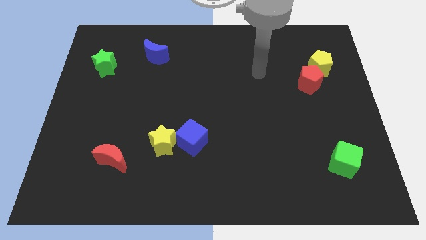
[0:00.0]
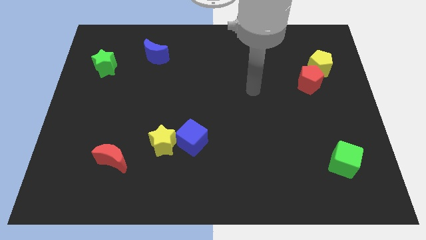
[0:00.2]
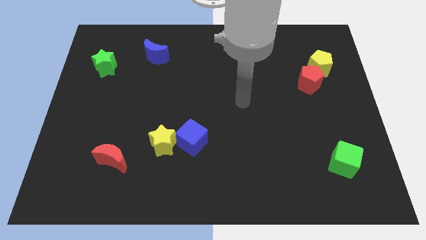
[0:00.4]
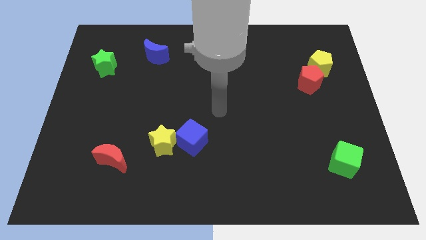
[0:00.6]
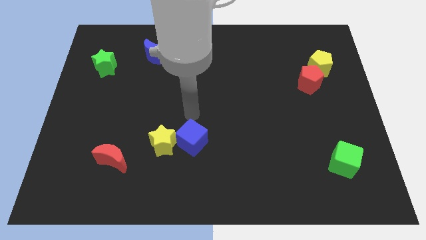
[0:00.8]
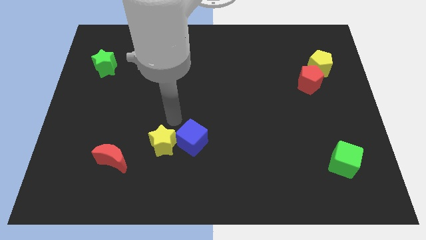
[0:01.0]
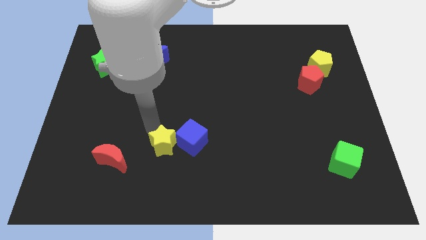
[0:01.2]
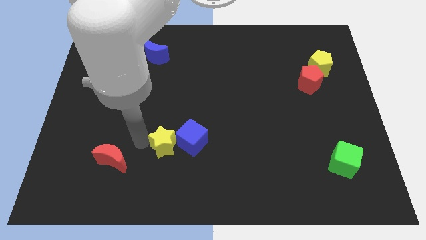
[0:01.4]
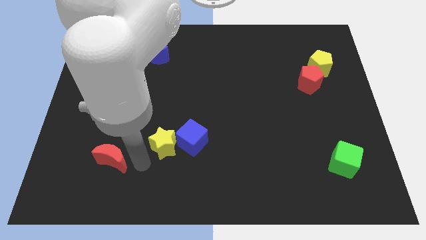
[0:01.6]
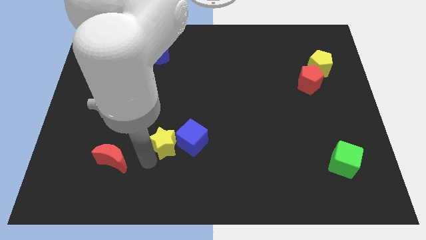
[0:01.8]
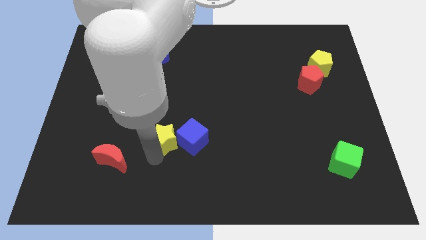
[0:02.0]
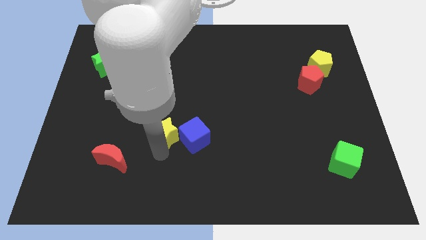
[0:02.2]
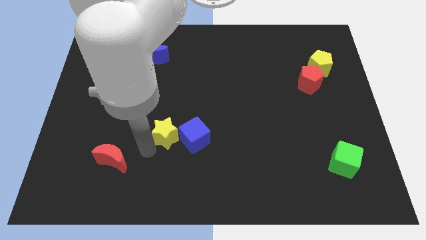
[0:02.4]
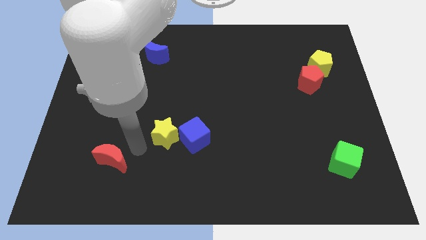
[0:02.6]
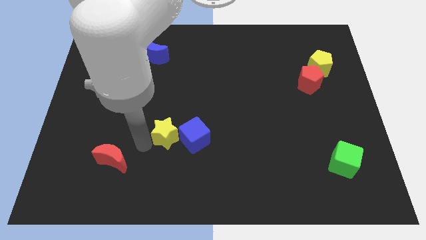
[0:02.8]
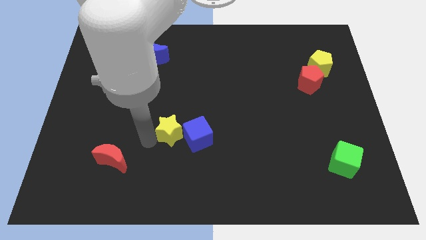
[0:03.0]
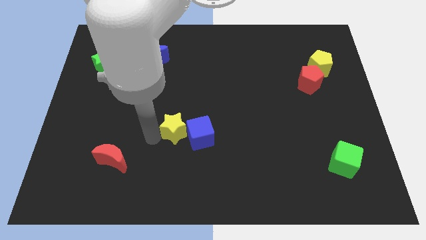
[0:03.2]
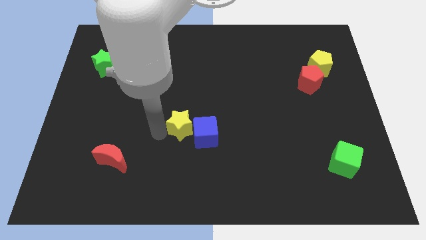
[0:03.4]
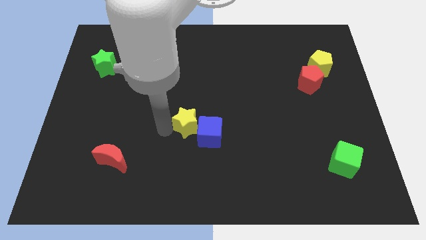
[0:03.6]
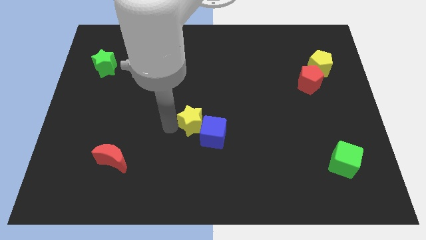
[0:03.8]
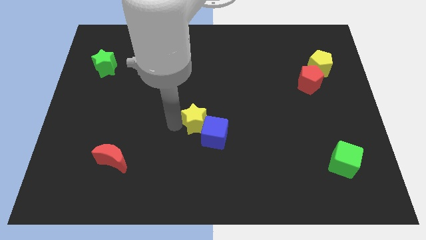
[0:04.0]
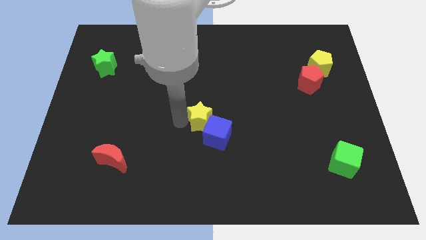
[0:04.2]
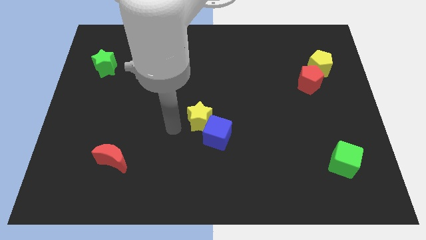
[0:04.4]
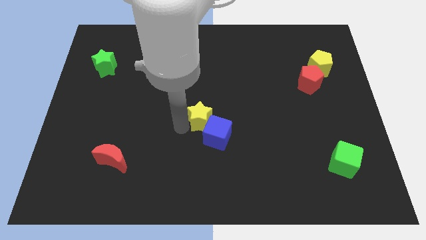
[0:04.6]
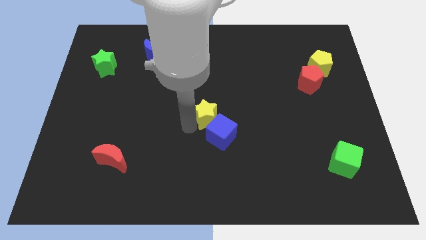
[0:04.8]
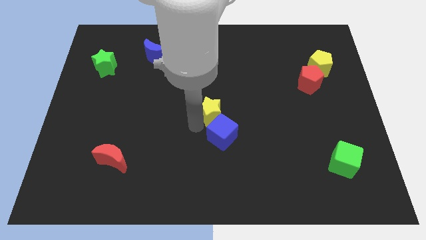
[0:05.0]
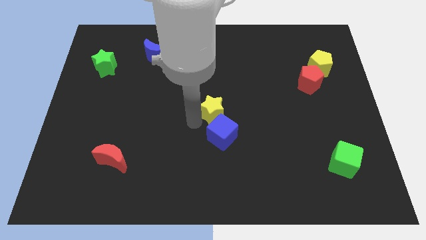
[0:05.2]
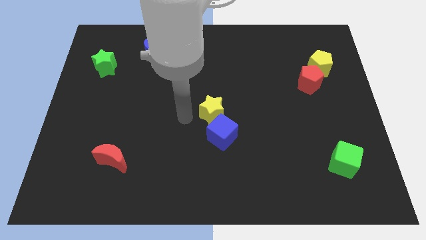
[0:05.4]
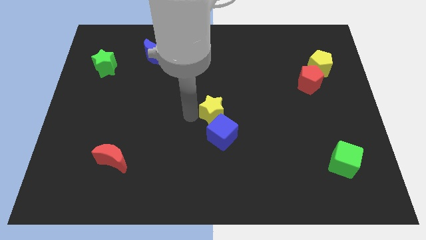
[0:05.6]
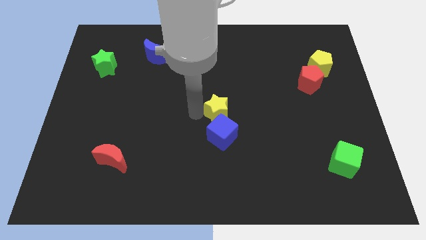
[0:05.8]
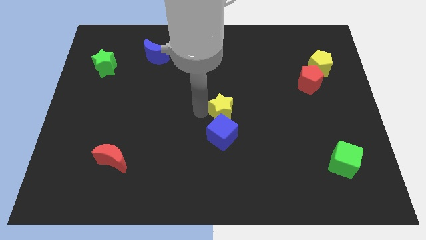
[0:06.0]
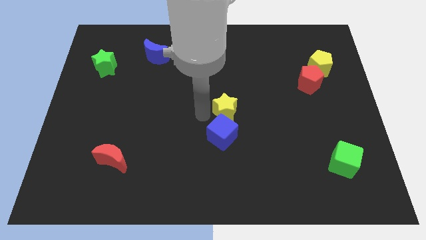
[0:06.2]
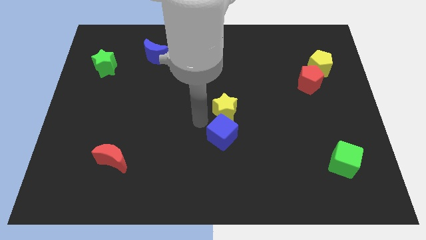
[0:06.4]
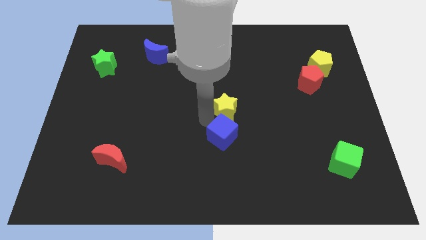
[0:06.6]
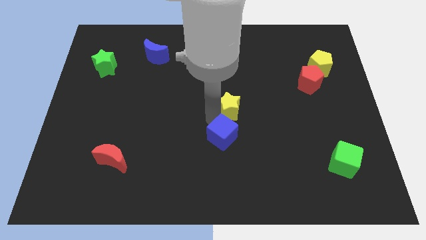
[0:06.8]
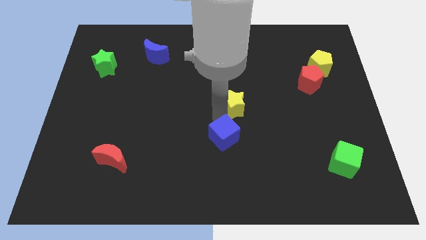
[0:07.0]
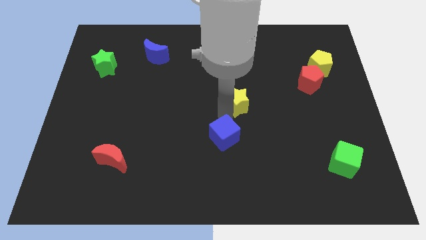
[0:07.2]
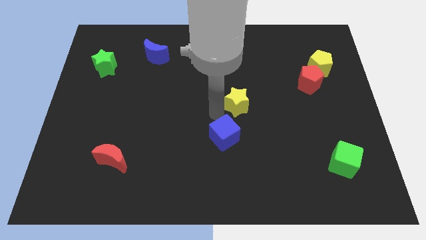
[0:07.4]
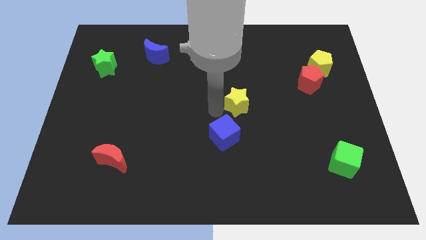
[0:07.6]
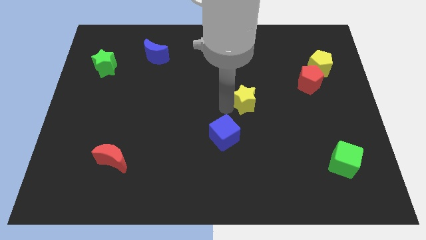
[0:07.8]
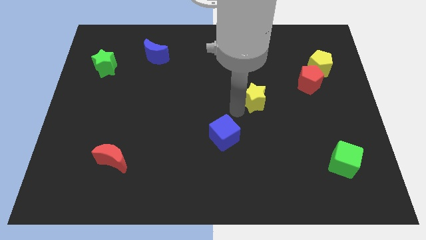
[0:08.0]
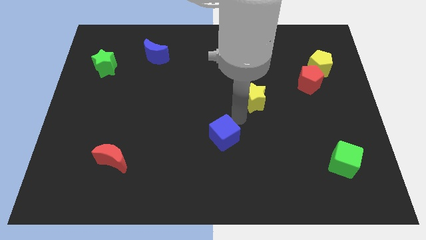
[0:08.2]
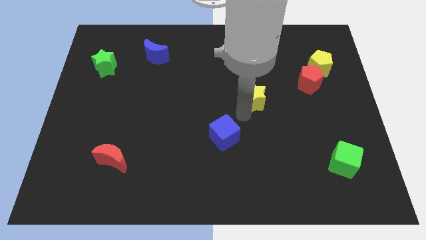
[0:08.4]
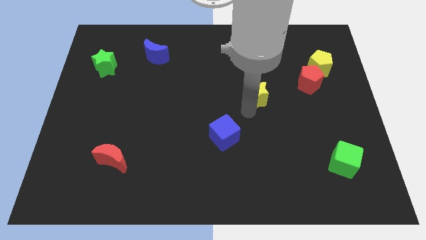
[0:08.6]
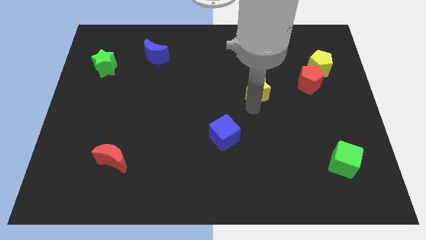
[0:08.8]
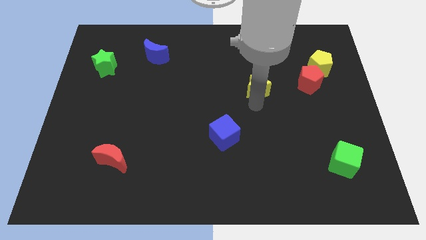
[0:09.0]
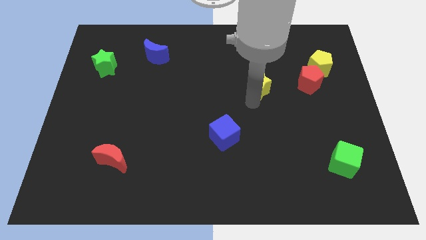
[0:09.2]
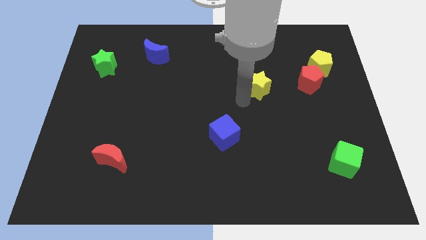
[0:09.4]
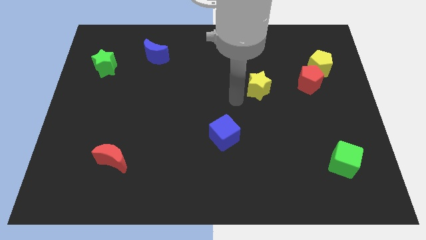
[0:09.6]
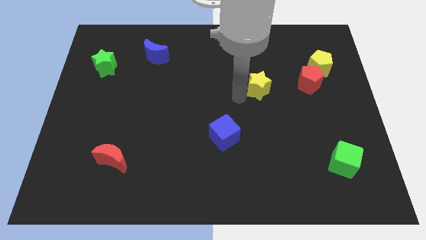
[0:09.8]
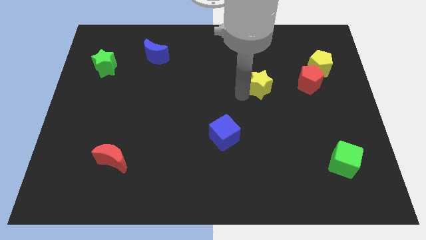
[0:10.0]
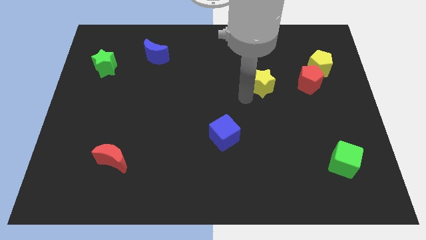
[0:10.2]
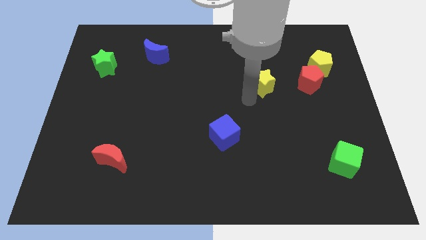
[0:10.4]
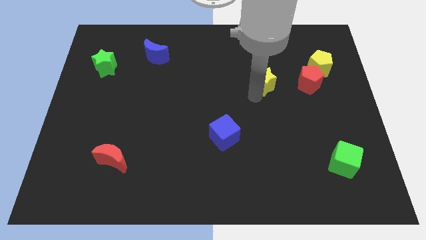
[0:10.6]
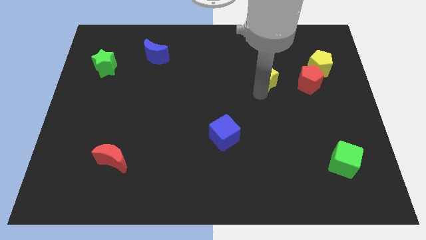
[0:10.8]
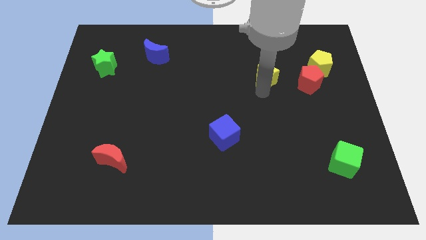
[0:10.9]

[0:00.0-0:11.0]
move the yellow star left of the yellow pentagon

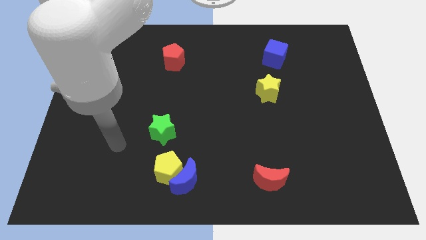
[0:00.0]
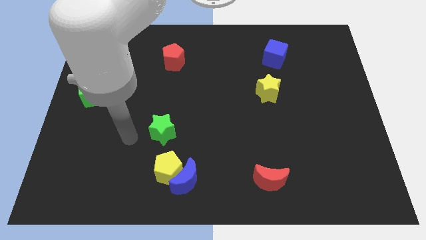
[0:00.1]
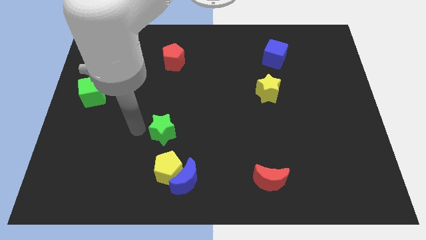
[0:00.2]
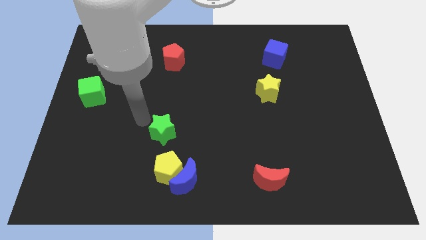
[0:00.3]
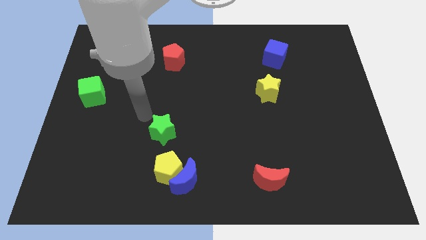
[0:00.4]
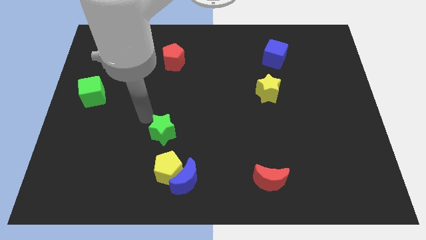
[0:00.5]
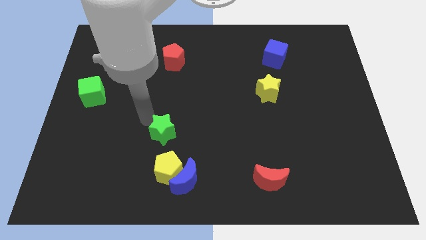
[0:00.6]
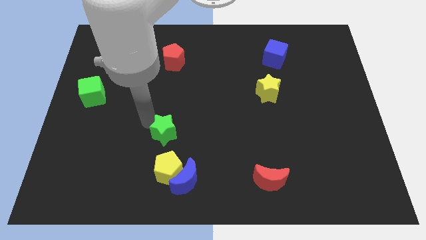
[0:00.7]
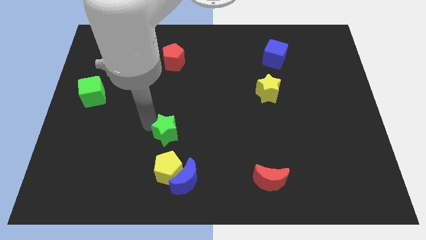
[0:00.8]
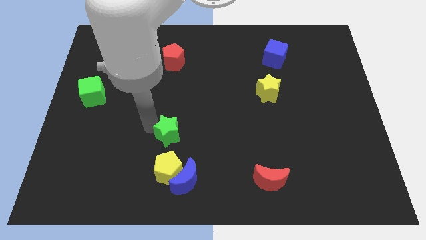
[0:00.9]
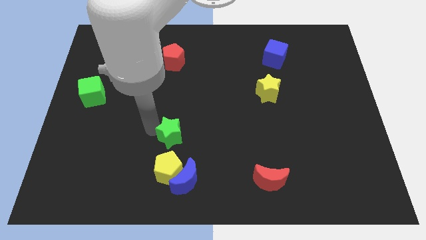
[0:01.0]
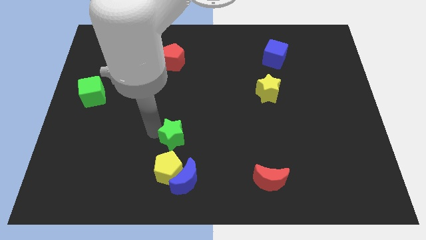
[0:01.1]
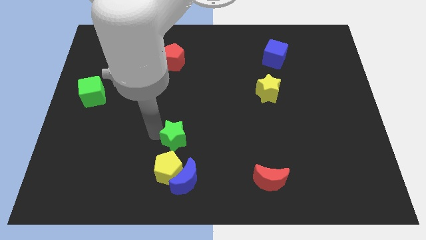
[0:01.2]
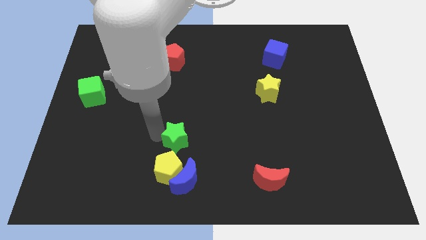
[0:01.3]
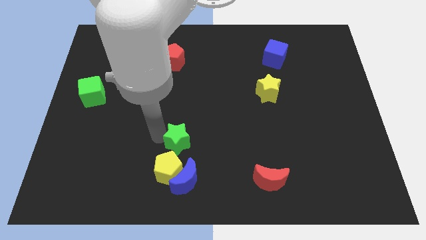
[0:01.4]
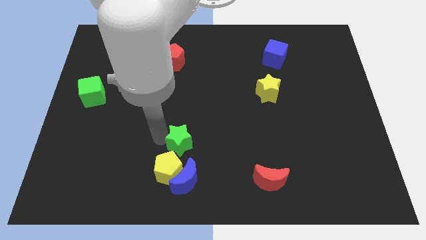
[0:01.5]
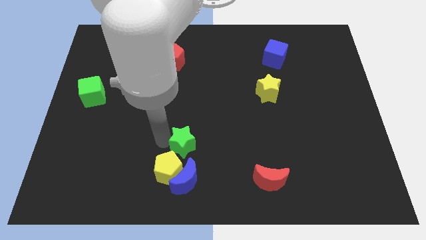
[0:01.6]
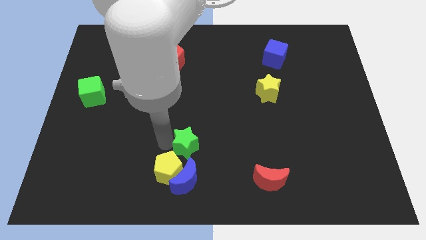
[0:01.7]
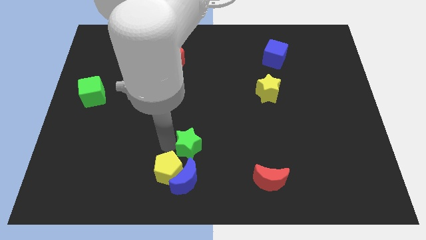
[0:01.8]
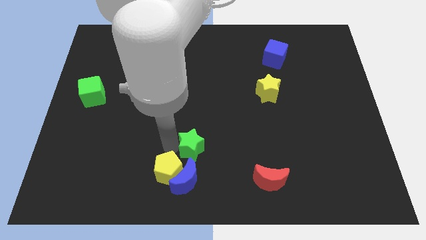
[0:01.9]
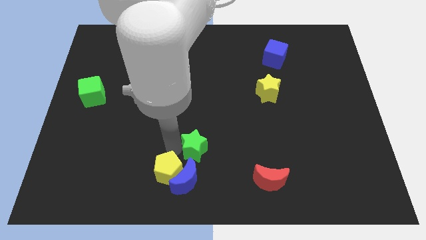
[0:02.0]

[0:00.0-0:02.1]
push the green star diagonally up and to the right of the blue moon
